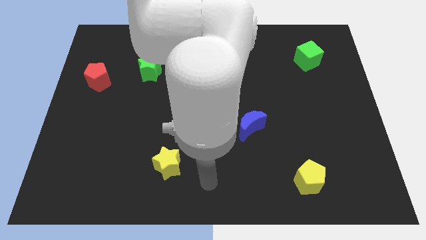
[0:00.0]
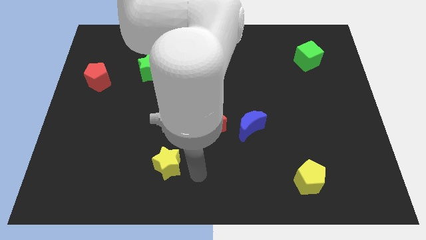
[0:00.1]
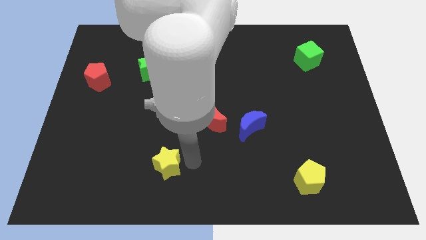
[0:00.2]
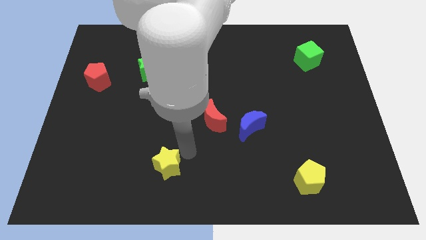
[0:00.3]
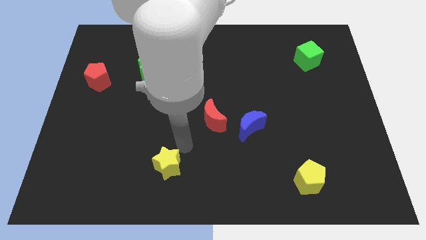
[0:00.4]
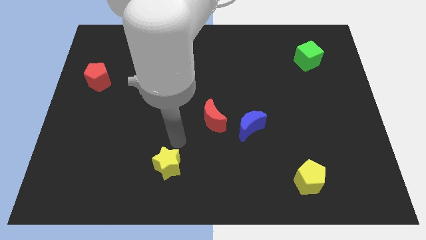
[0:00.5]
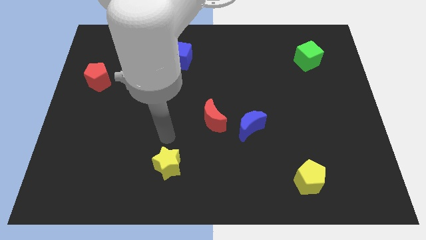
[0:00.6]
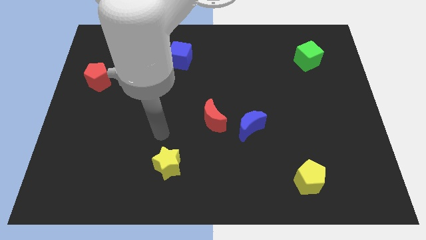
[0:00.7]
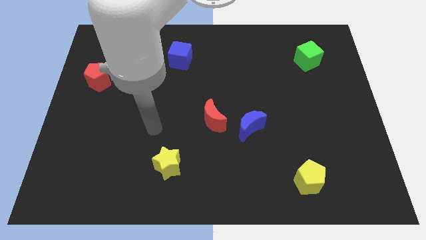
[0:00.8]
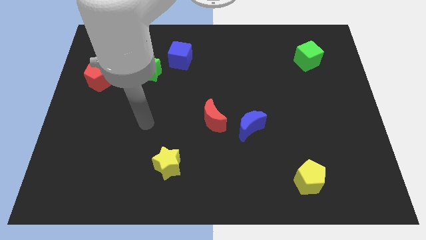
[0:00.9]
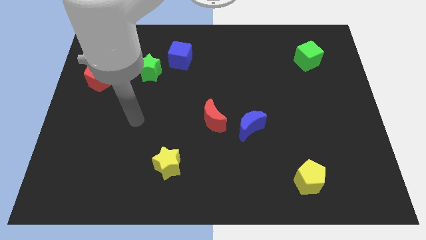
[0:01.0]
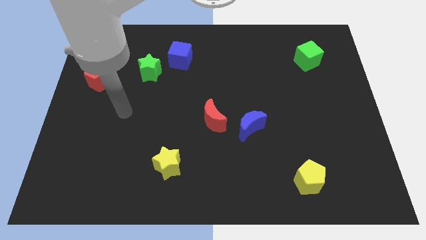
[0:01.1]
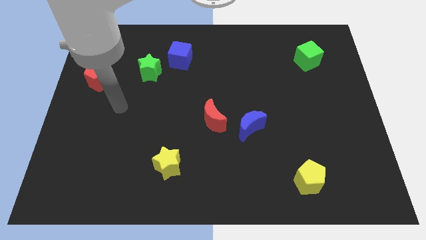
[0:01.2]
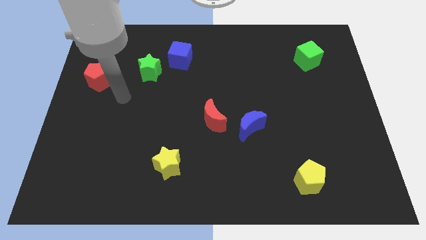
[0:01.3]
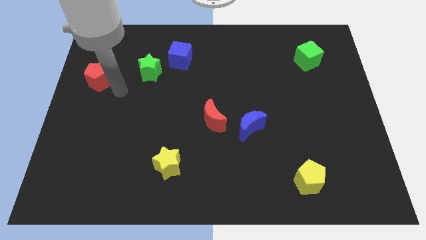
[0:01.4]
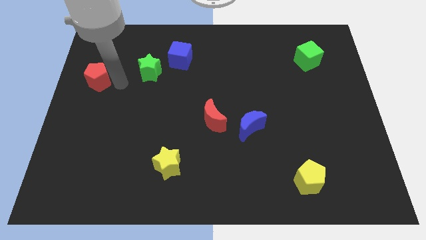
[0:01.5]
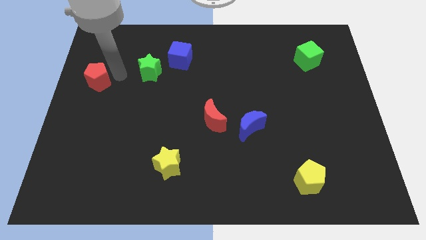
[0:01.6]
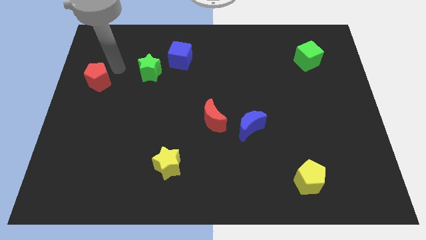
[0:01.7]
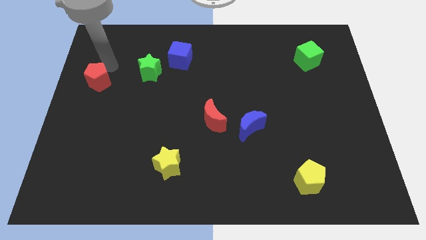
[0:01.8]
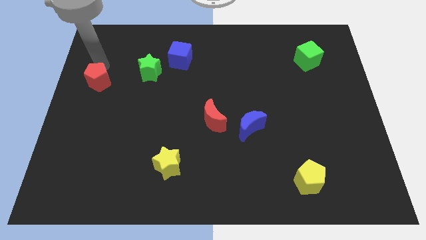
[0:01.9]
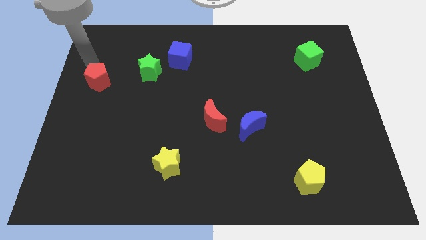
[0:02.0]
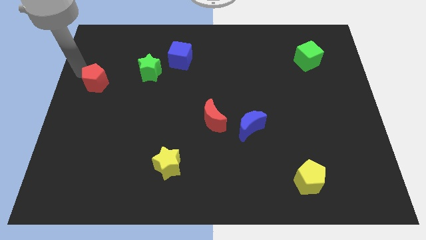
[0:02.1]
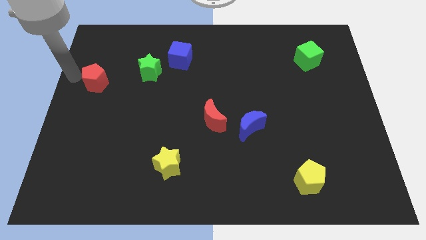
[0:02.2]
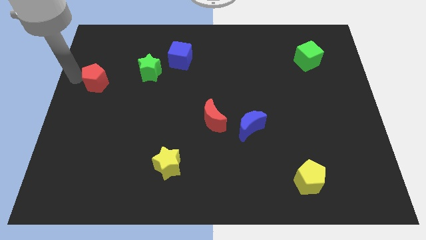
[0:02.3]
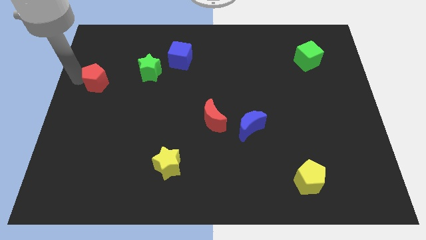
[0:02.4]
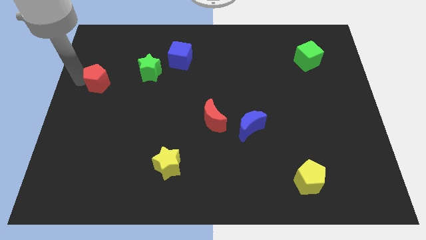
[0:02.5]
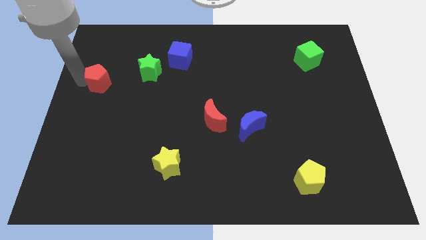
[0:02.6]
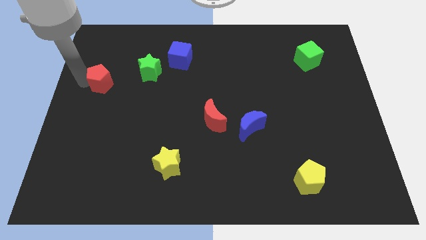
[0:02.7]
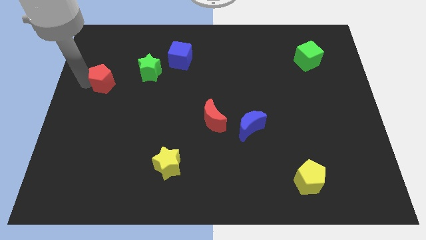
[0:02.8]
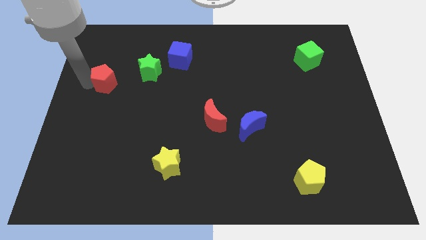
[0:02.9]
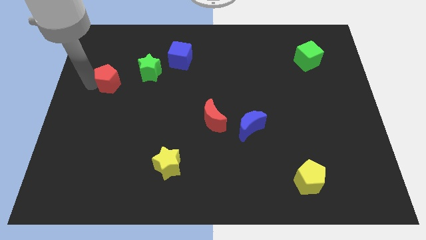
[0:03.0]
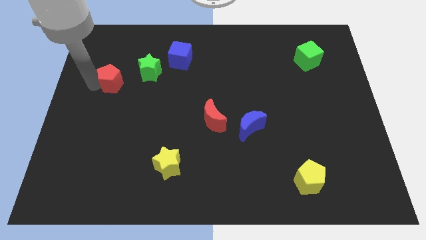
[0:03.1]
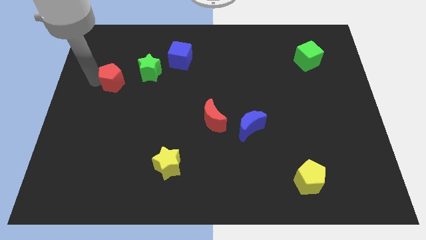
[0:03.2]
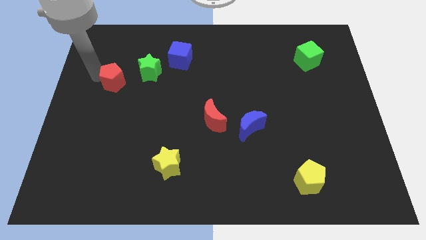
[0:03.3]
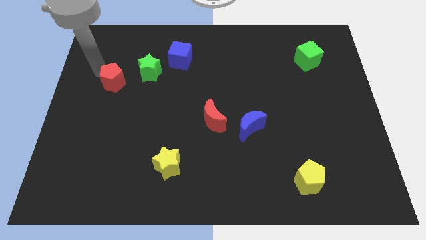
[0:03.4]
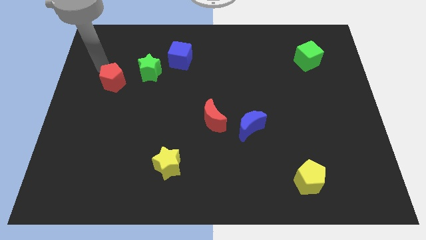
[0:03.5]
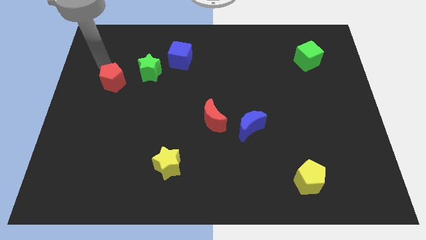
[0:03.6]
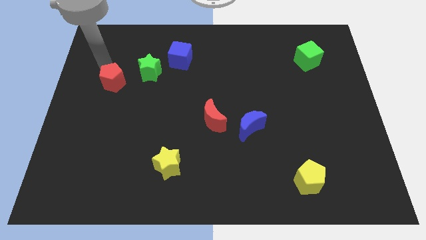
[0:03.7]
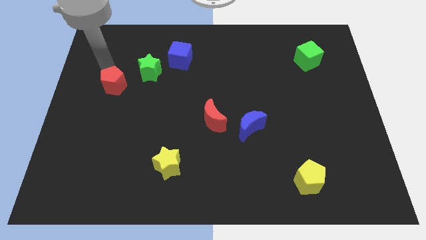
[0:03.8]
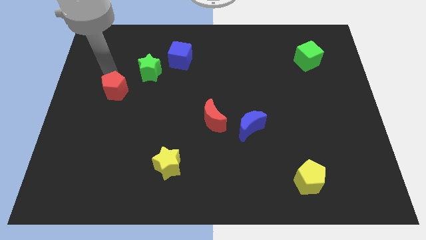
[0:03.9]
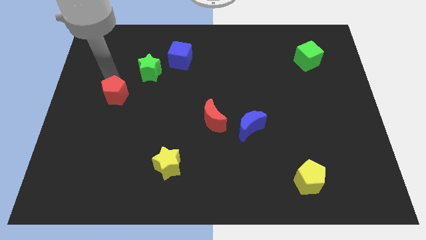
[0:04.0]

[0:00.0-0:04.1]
push the red pentagon down and right a little

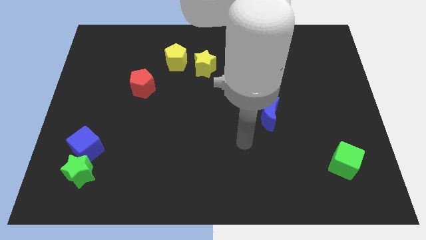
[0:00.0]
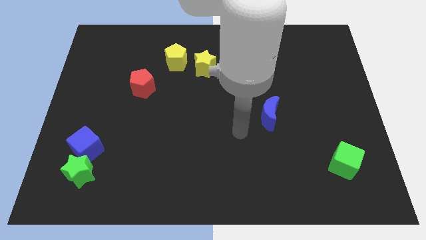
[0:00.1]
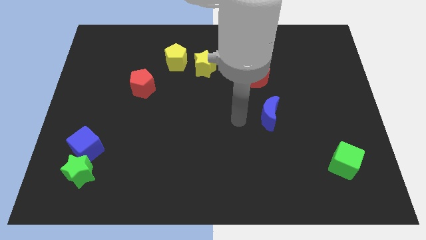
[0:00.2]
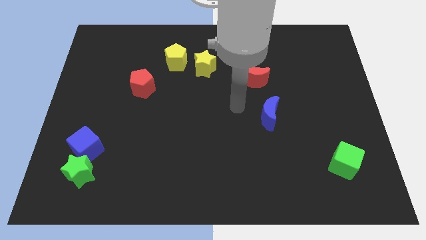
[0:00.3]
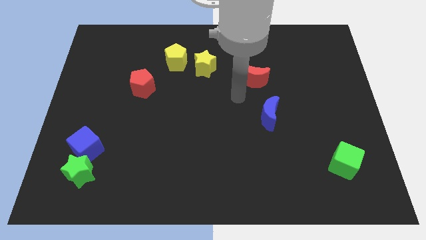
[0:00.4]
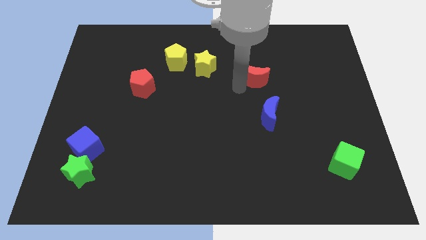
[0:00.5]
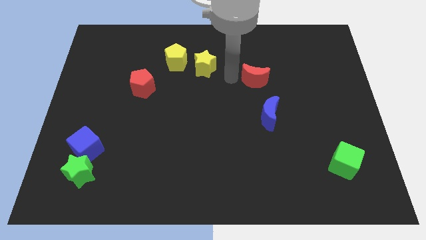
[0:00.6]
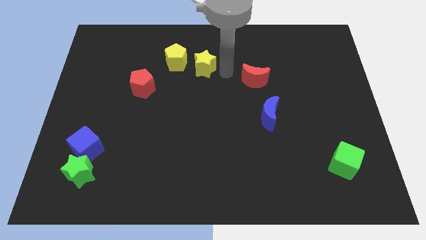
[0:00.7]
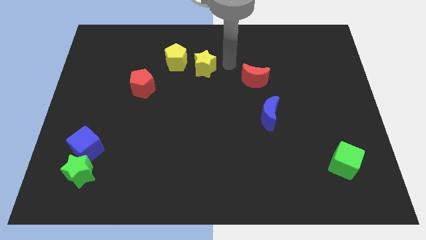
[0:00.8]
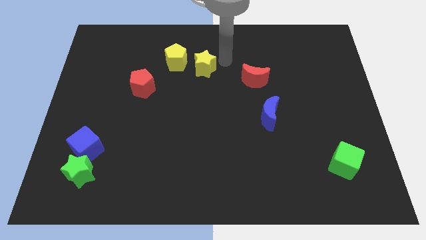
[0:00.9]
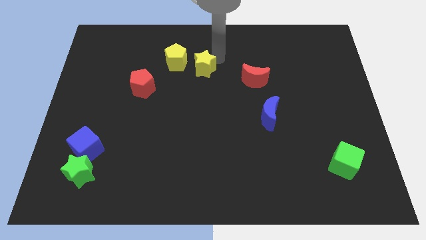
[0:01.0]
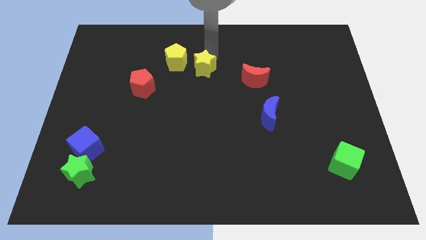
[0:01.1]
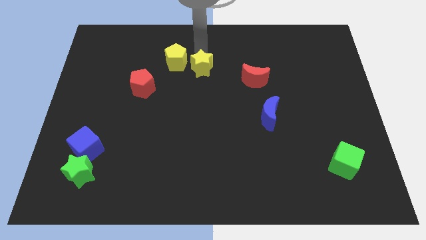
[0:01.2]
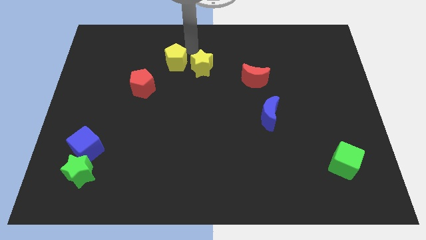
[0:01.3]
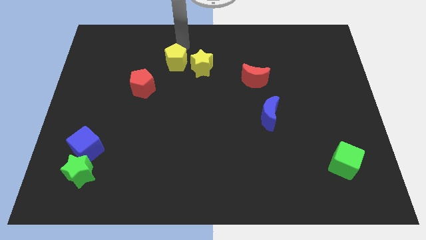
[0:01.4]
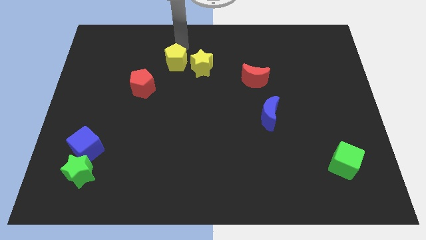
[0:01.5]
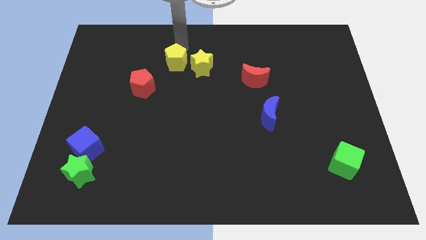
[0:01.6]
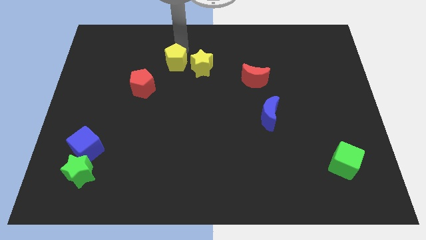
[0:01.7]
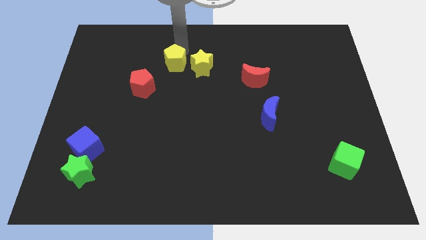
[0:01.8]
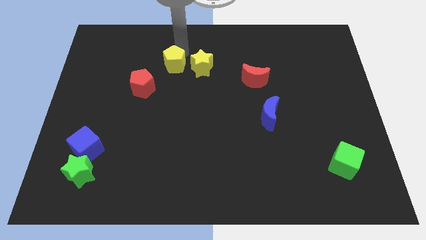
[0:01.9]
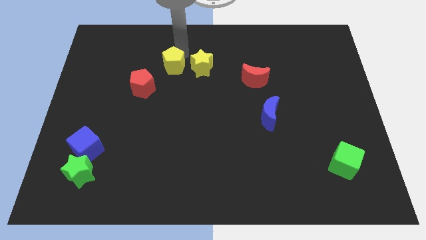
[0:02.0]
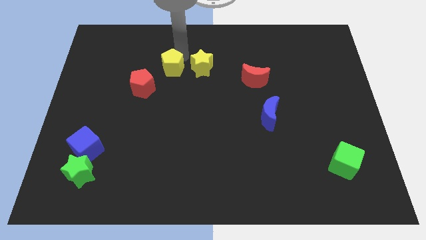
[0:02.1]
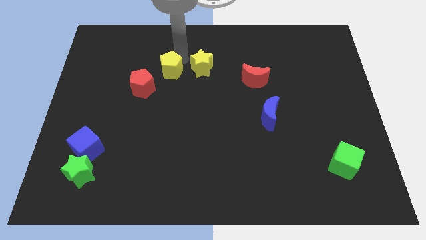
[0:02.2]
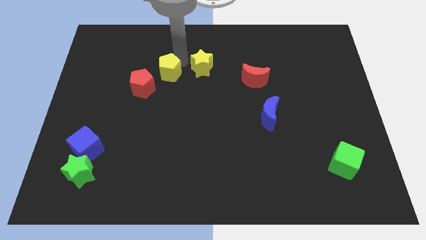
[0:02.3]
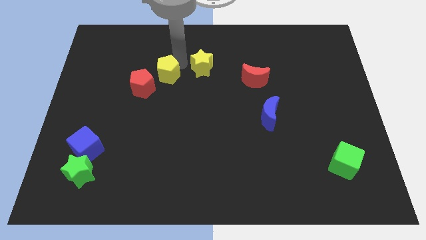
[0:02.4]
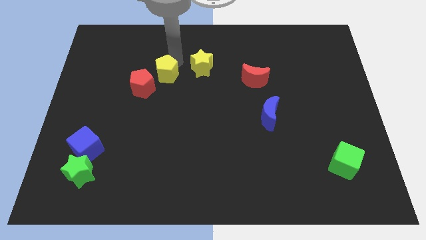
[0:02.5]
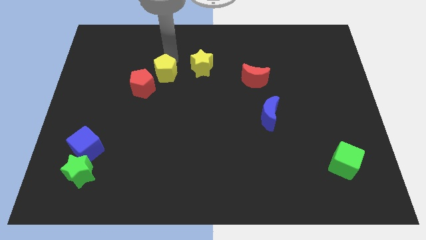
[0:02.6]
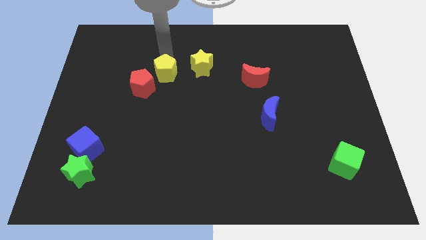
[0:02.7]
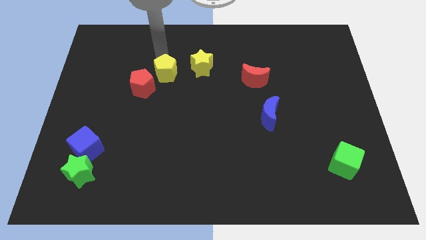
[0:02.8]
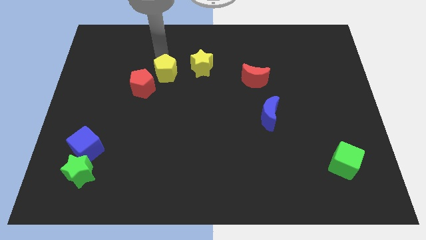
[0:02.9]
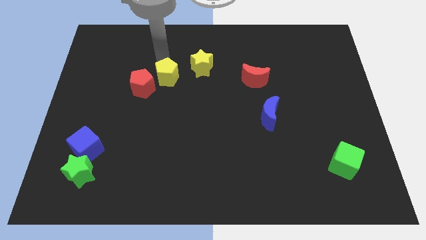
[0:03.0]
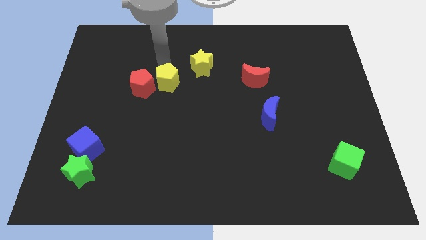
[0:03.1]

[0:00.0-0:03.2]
slide the yellow pentagon a little bit down

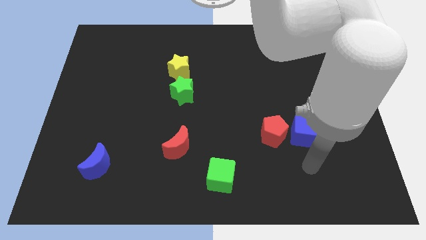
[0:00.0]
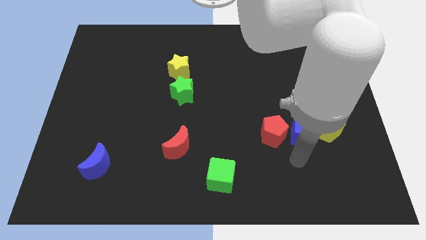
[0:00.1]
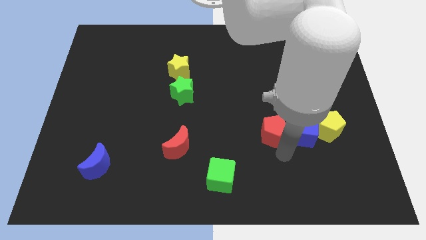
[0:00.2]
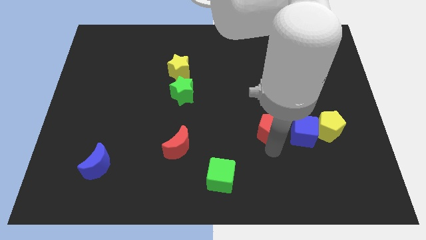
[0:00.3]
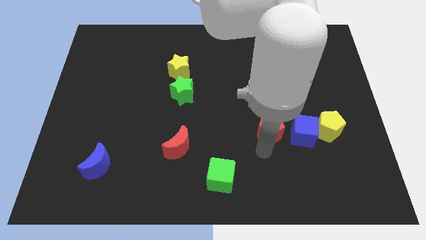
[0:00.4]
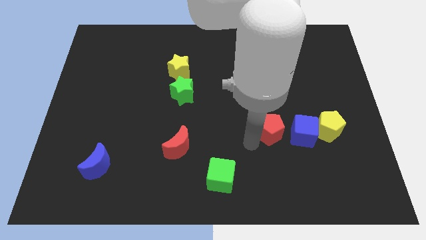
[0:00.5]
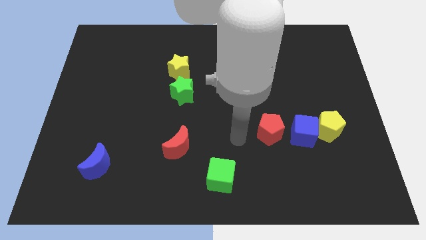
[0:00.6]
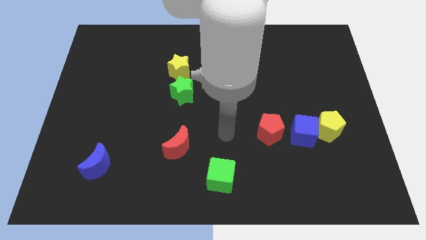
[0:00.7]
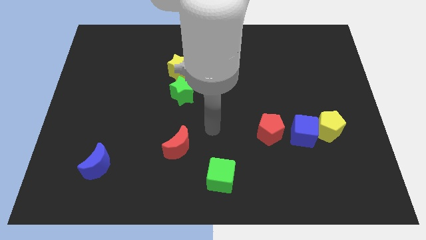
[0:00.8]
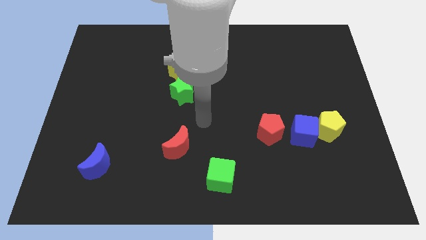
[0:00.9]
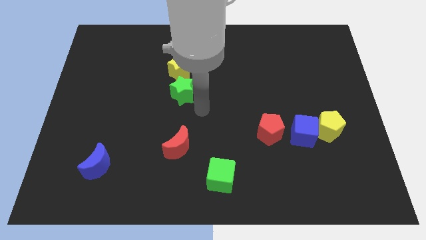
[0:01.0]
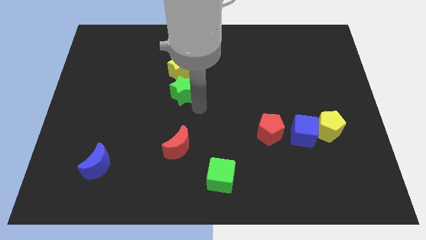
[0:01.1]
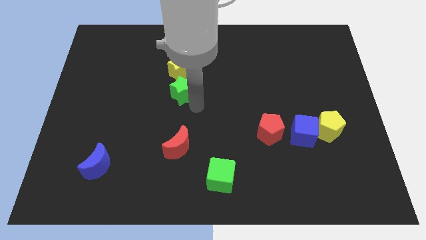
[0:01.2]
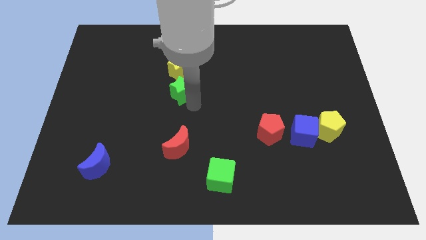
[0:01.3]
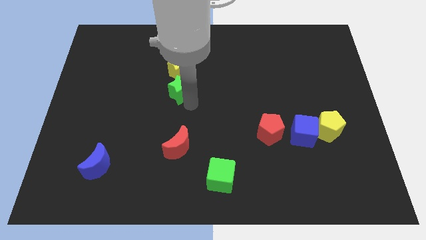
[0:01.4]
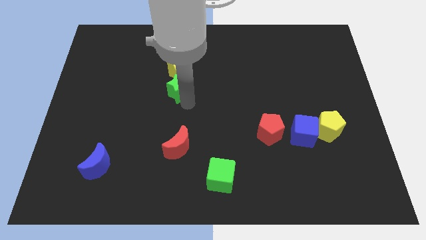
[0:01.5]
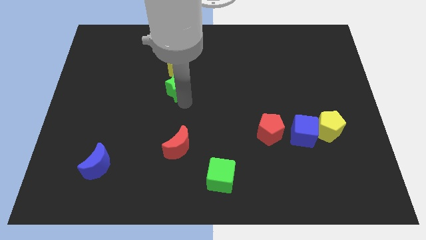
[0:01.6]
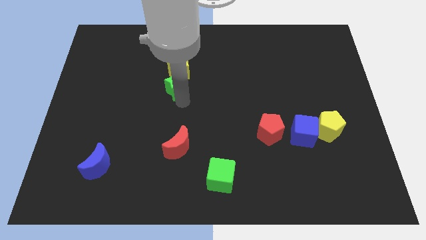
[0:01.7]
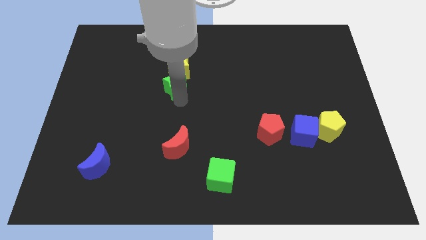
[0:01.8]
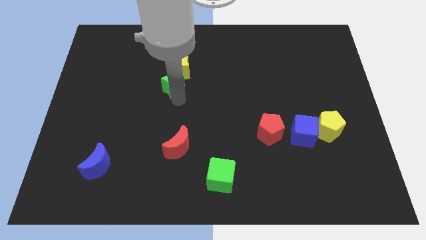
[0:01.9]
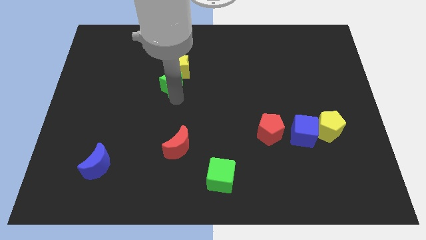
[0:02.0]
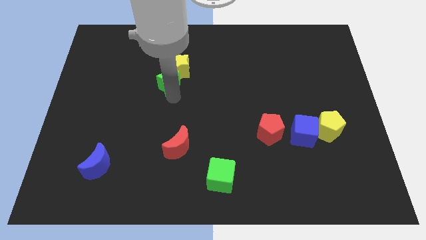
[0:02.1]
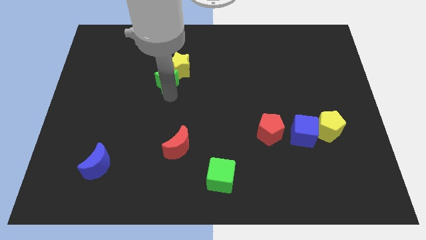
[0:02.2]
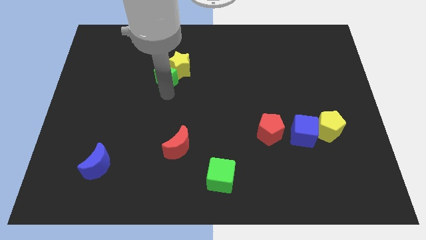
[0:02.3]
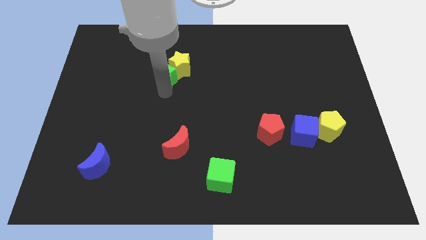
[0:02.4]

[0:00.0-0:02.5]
push the green star upwards and to the left diagonally a little
